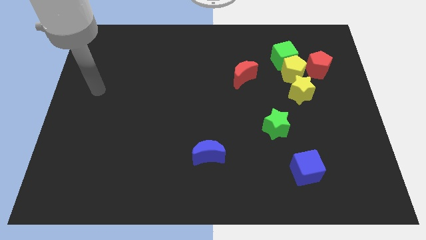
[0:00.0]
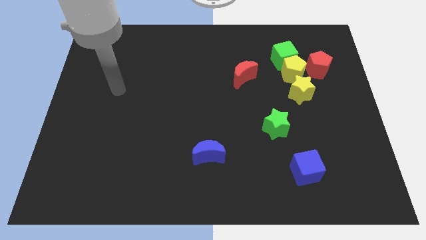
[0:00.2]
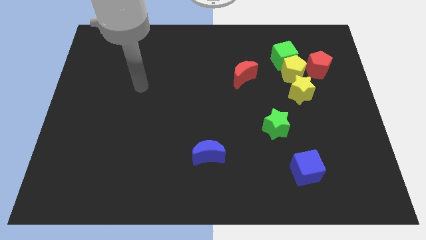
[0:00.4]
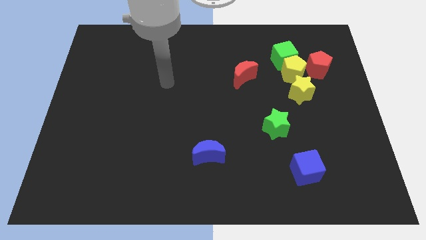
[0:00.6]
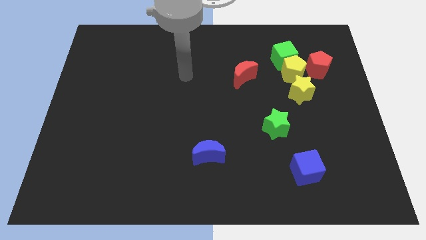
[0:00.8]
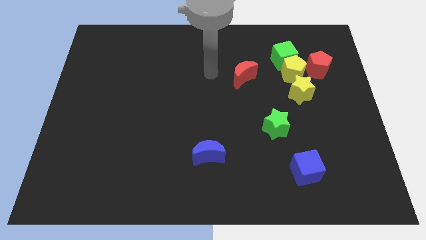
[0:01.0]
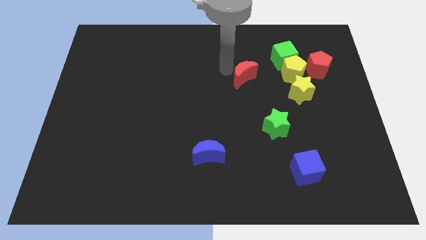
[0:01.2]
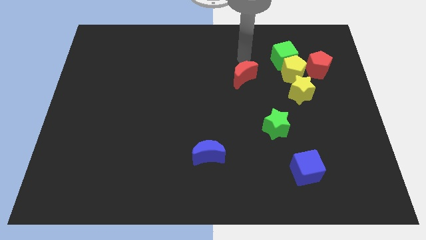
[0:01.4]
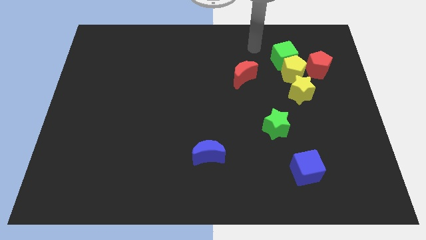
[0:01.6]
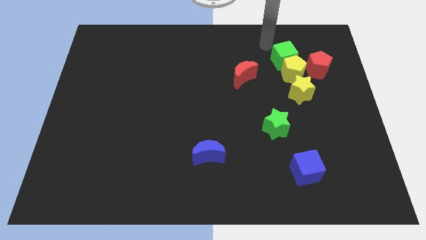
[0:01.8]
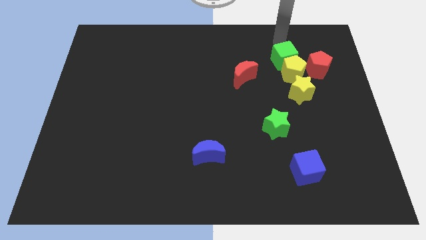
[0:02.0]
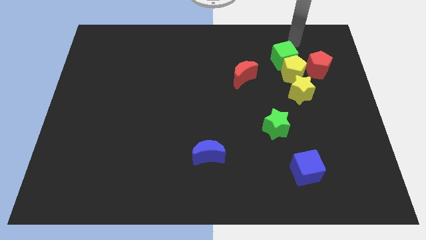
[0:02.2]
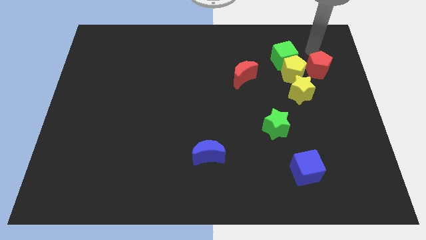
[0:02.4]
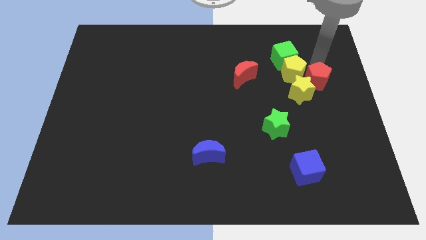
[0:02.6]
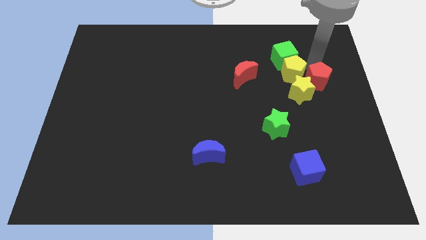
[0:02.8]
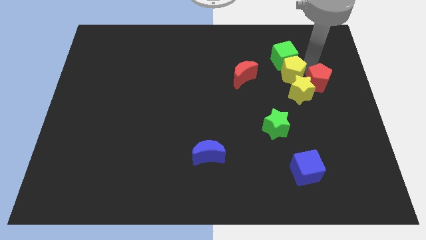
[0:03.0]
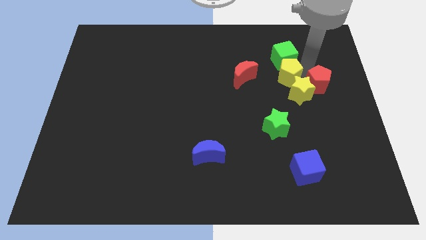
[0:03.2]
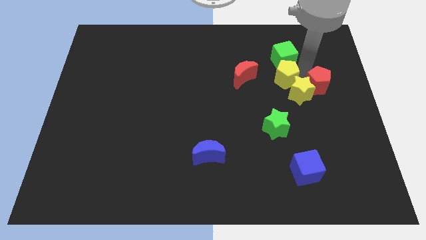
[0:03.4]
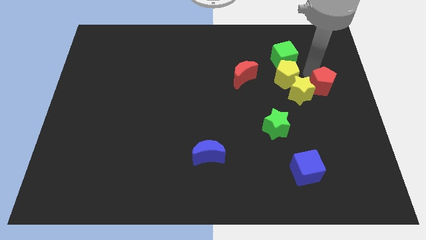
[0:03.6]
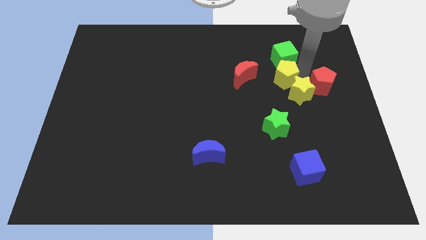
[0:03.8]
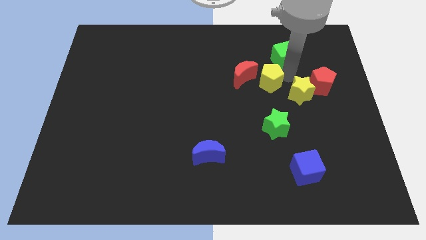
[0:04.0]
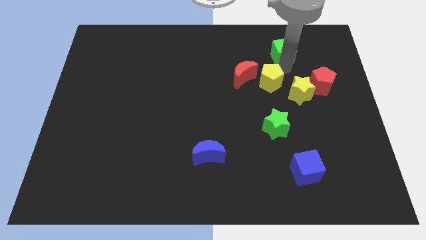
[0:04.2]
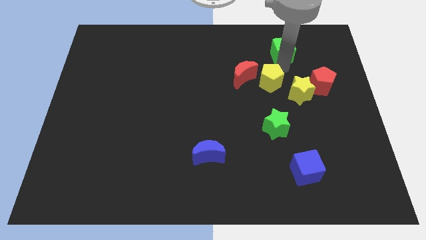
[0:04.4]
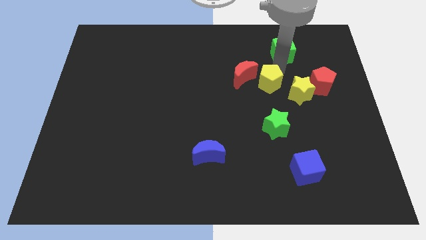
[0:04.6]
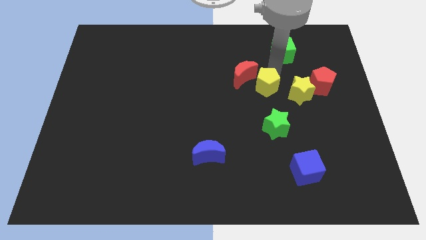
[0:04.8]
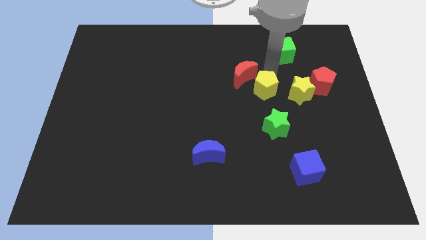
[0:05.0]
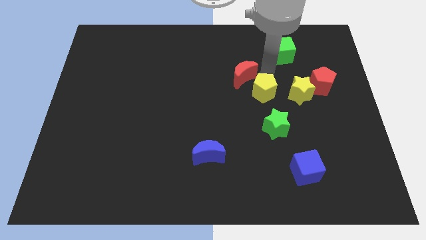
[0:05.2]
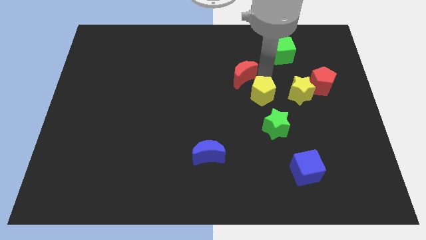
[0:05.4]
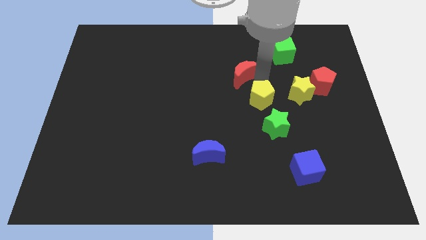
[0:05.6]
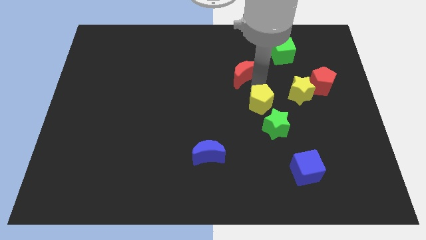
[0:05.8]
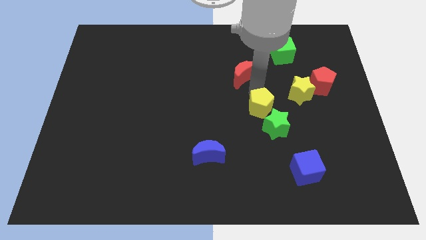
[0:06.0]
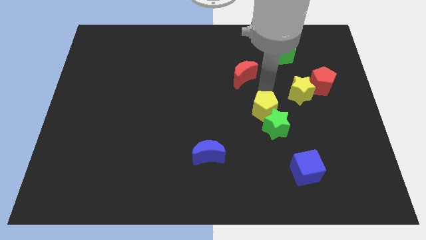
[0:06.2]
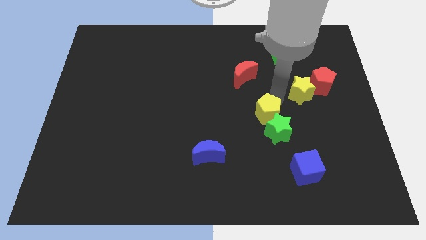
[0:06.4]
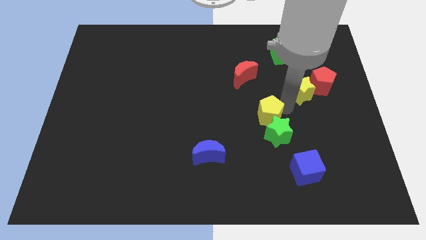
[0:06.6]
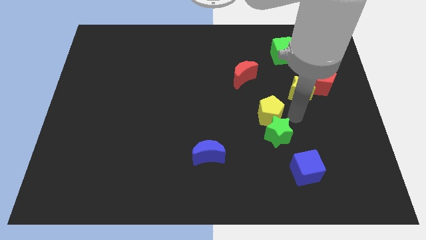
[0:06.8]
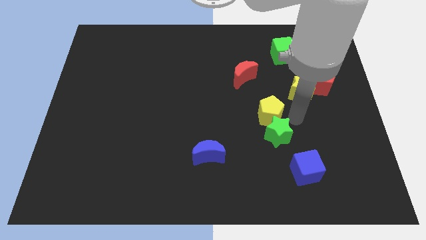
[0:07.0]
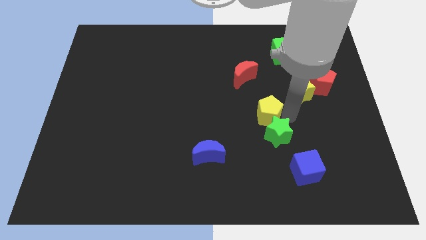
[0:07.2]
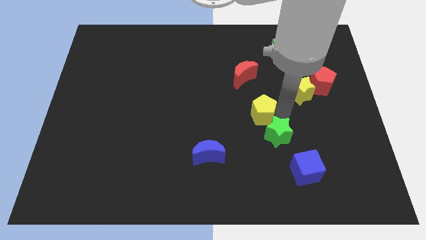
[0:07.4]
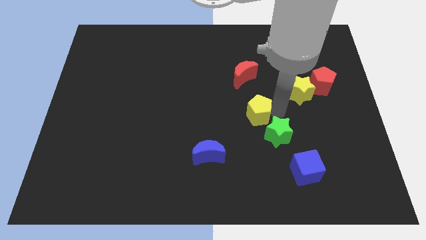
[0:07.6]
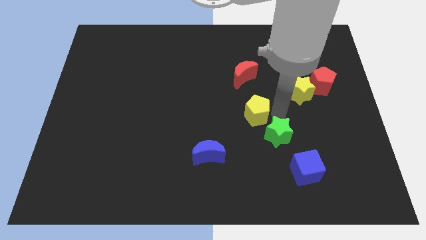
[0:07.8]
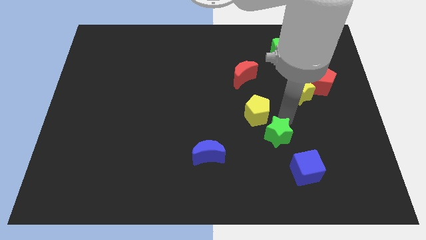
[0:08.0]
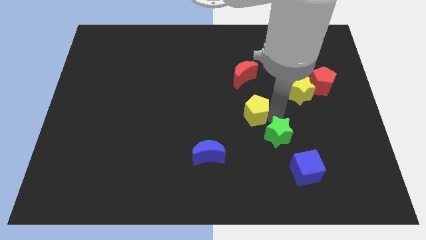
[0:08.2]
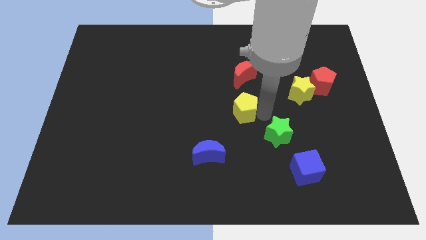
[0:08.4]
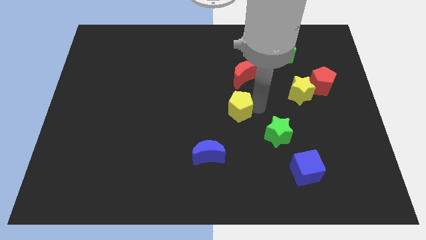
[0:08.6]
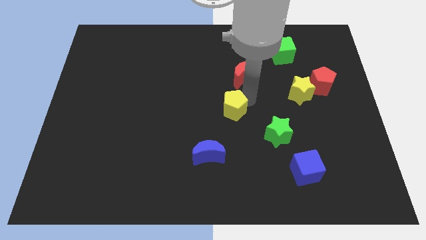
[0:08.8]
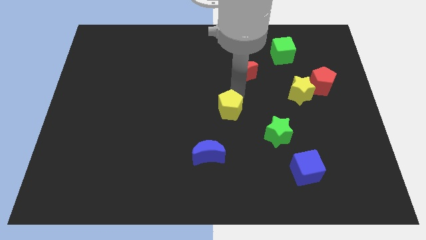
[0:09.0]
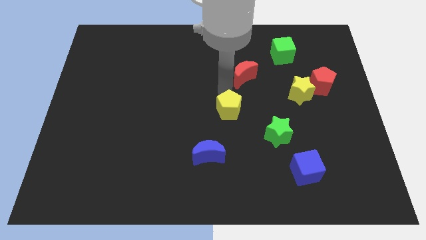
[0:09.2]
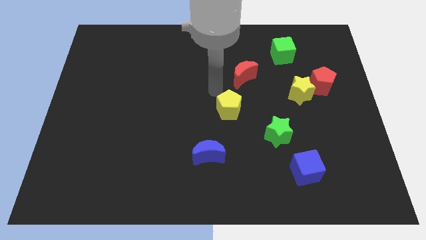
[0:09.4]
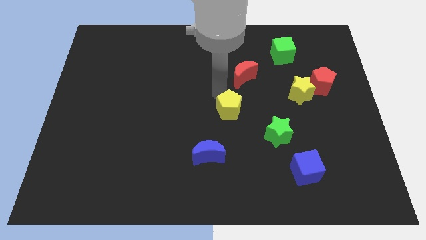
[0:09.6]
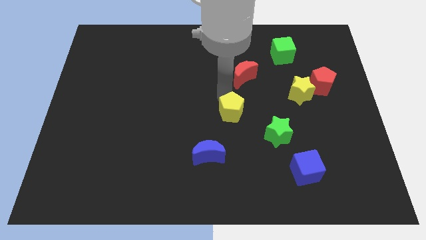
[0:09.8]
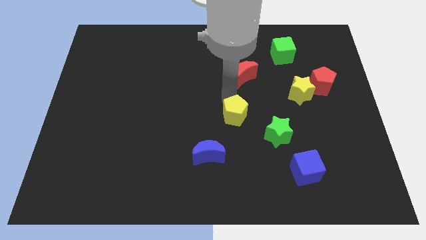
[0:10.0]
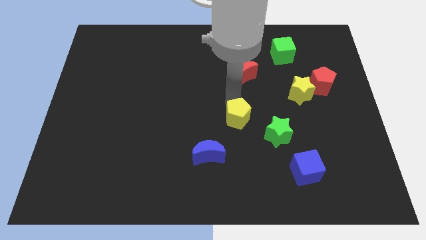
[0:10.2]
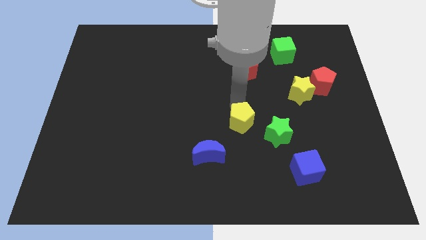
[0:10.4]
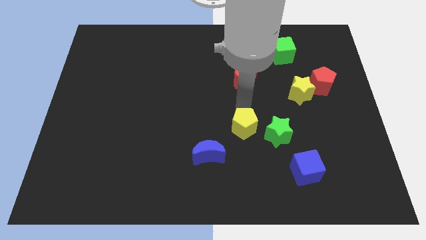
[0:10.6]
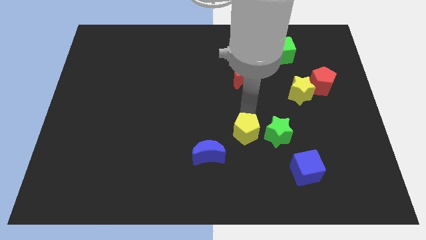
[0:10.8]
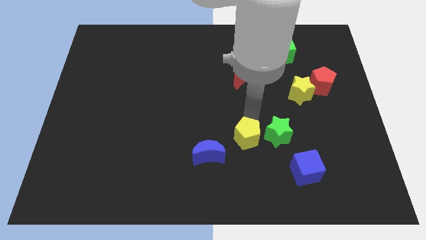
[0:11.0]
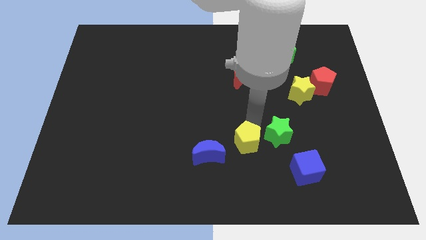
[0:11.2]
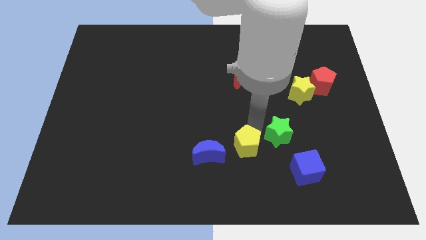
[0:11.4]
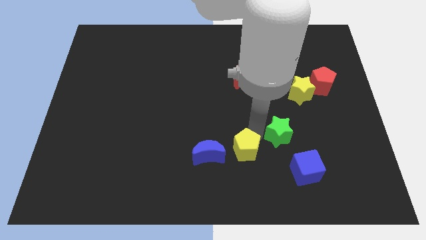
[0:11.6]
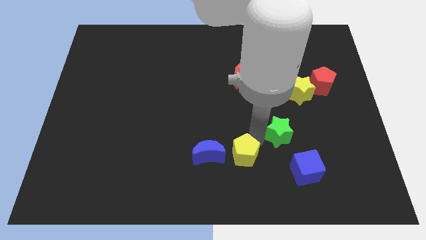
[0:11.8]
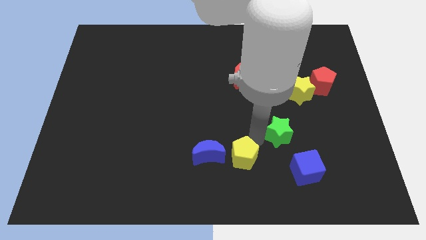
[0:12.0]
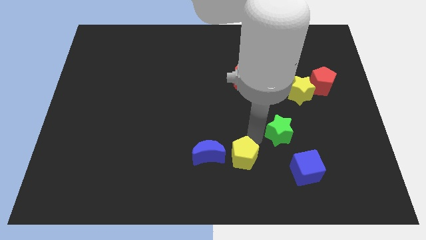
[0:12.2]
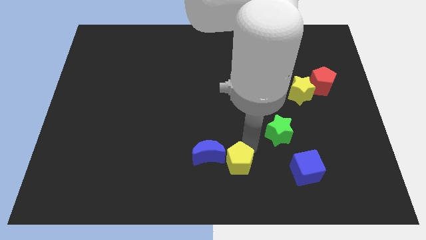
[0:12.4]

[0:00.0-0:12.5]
slide the yellow pentagon to the bottom
